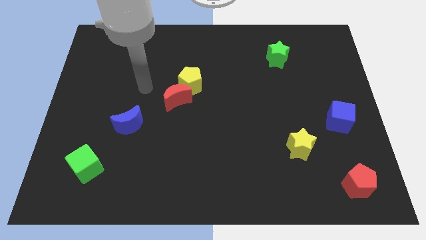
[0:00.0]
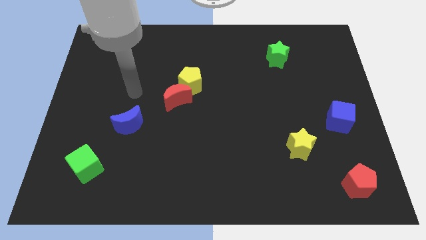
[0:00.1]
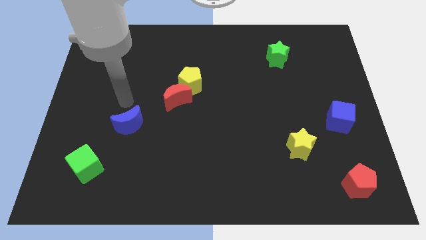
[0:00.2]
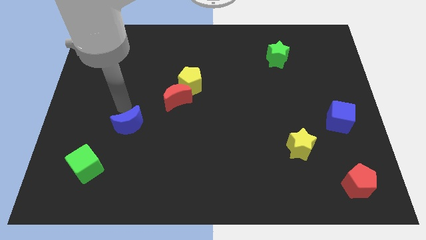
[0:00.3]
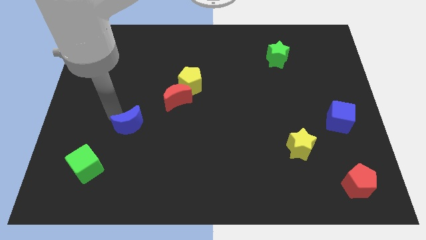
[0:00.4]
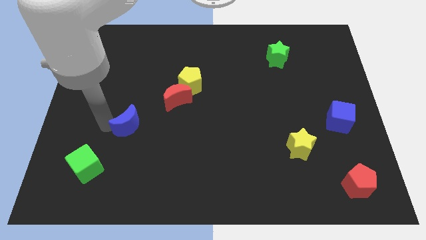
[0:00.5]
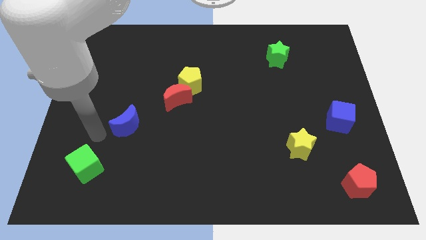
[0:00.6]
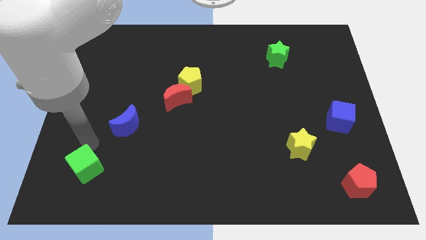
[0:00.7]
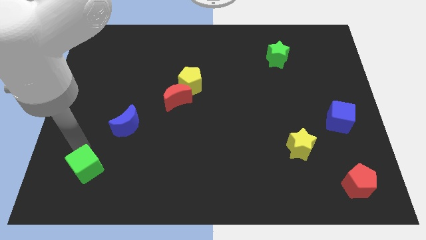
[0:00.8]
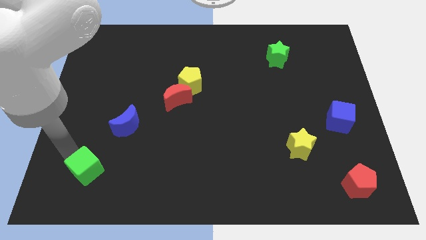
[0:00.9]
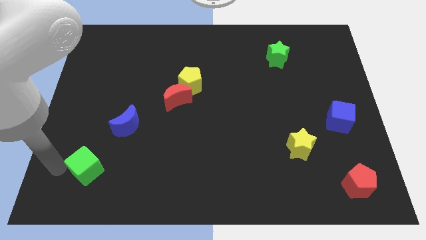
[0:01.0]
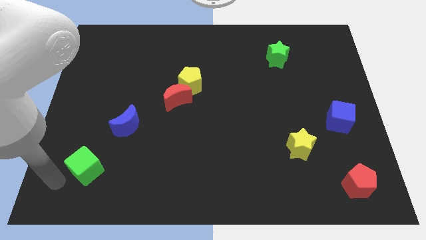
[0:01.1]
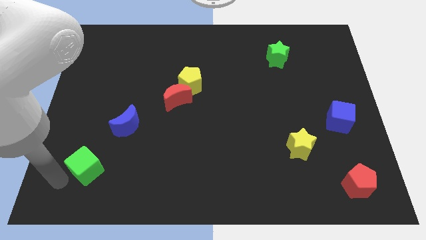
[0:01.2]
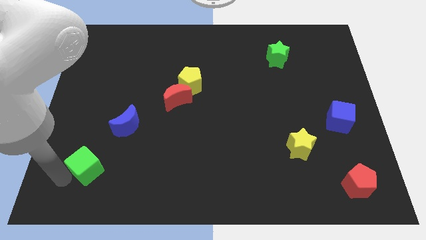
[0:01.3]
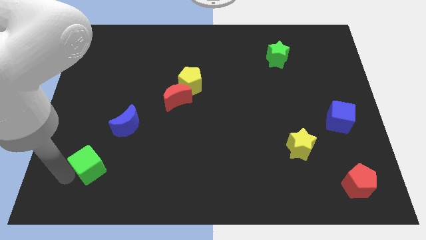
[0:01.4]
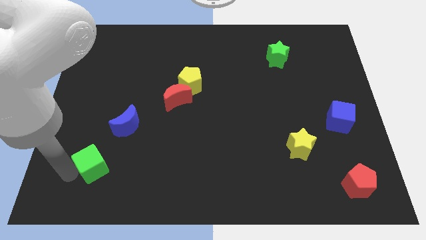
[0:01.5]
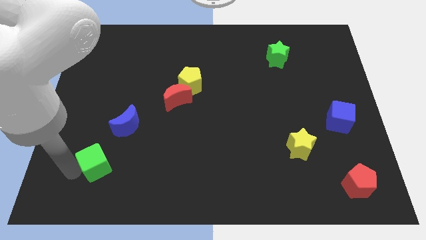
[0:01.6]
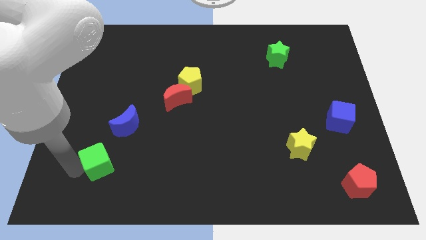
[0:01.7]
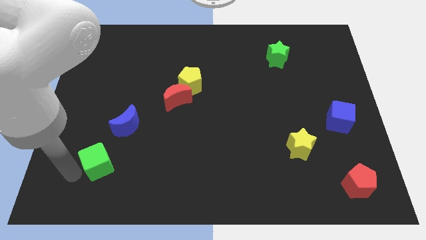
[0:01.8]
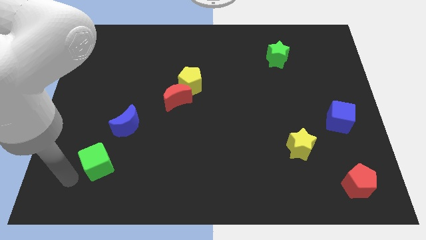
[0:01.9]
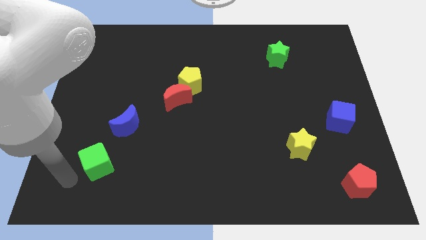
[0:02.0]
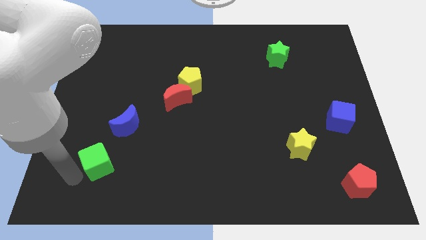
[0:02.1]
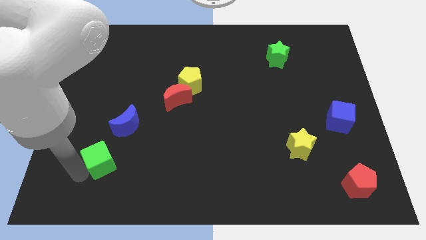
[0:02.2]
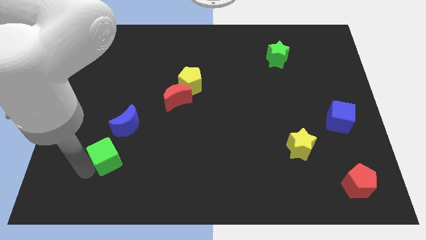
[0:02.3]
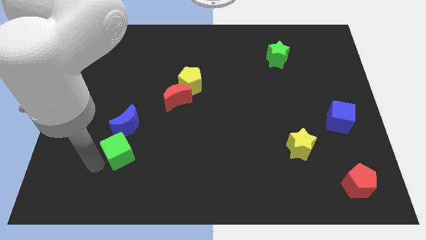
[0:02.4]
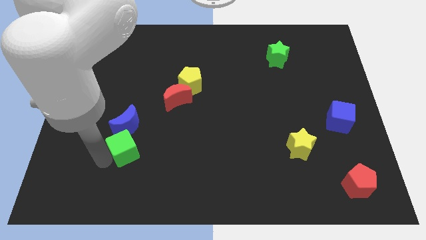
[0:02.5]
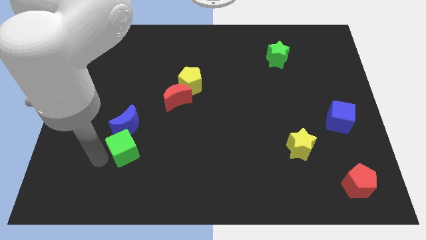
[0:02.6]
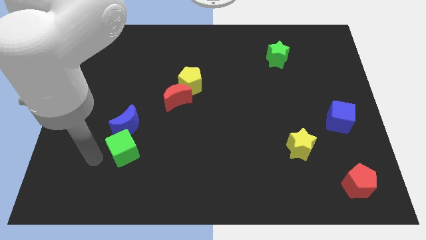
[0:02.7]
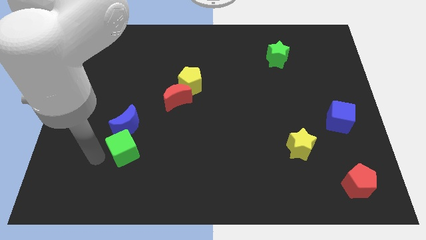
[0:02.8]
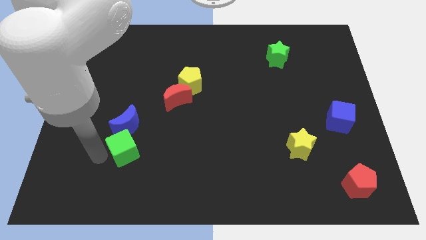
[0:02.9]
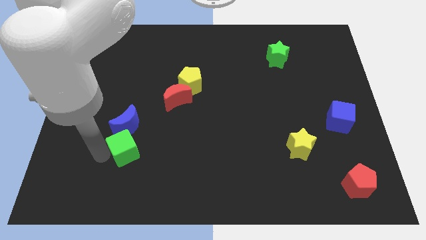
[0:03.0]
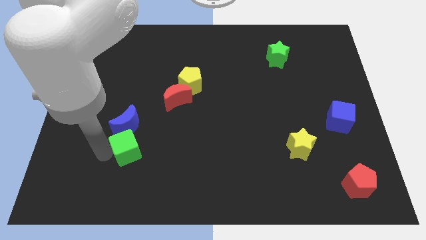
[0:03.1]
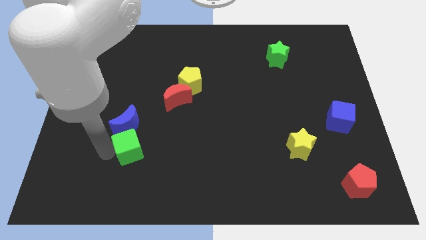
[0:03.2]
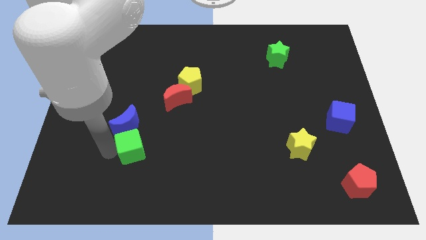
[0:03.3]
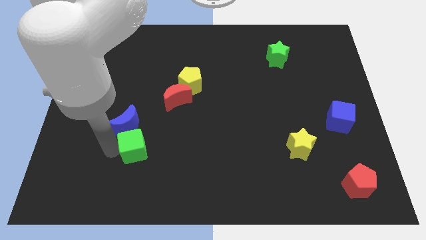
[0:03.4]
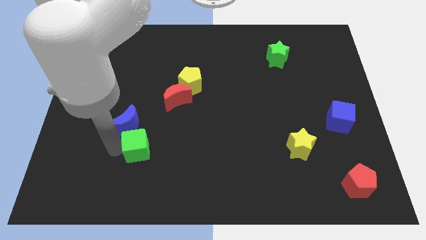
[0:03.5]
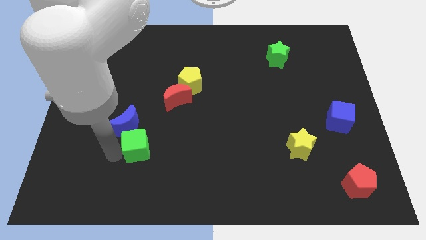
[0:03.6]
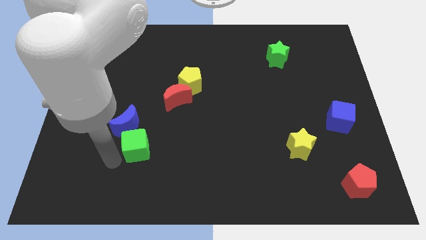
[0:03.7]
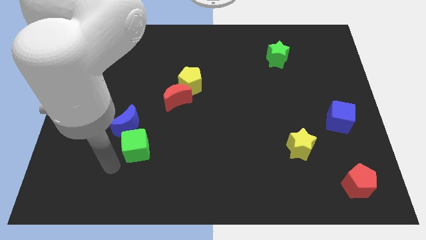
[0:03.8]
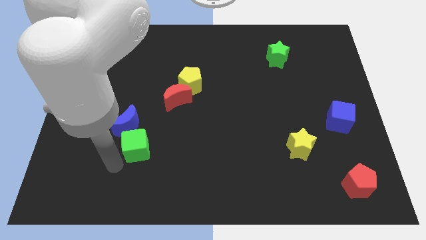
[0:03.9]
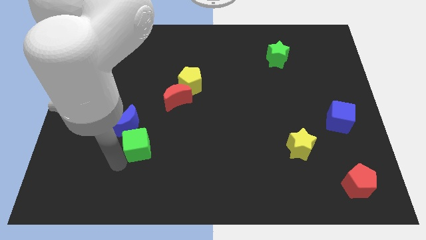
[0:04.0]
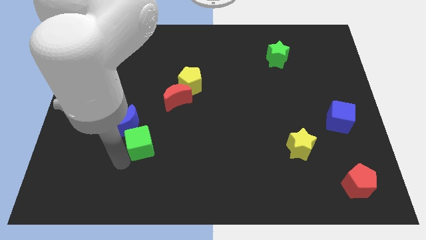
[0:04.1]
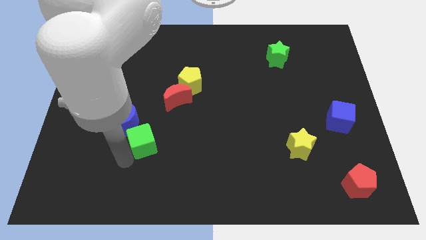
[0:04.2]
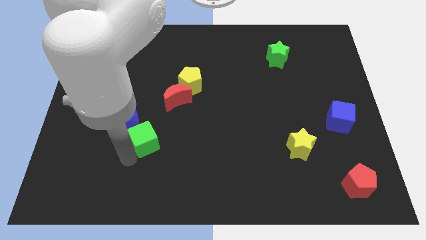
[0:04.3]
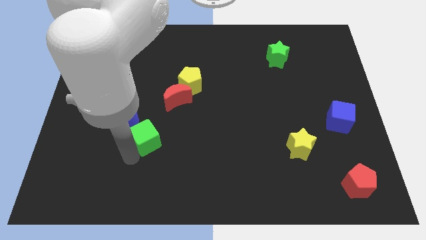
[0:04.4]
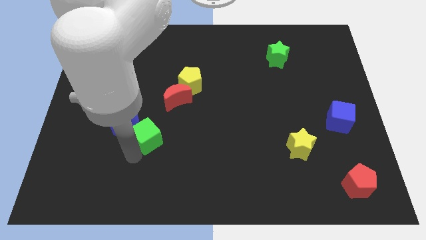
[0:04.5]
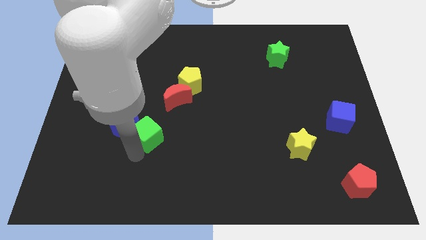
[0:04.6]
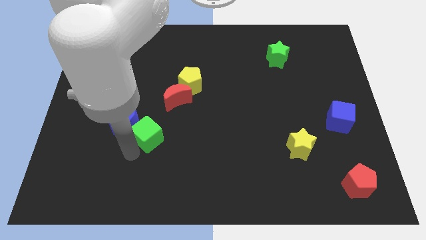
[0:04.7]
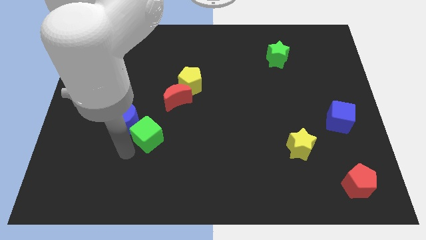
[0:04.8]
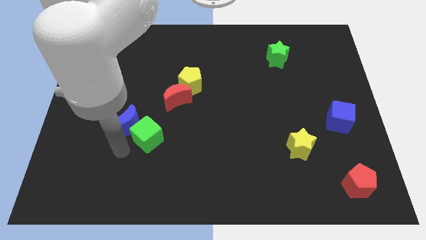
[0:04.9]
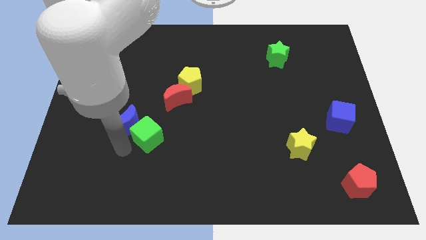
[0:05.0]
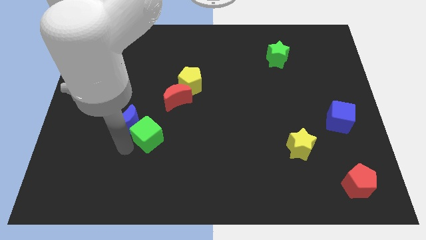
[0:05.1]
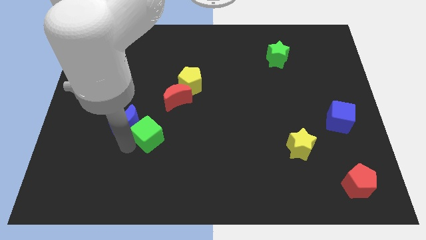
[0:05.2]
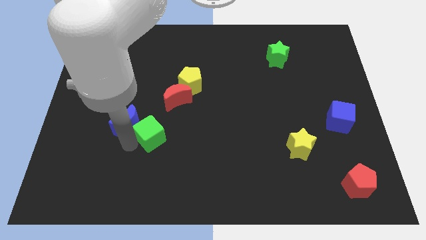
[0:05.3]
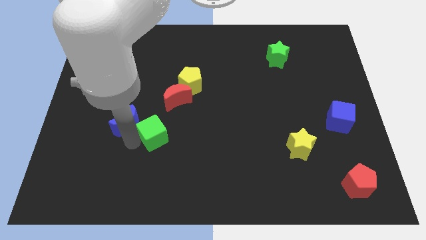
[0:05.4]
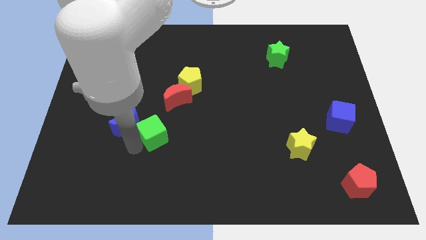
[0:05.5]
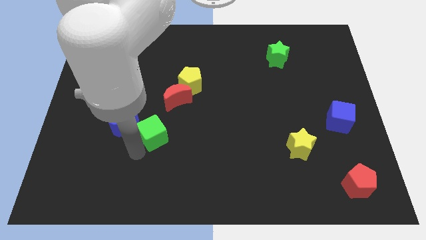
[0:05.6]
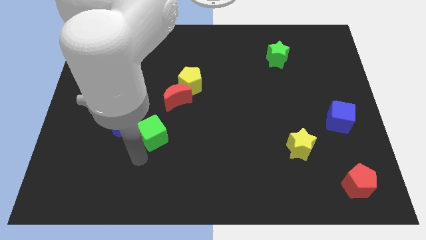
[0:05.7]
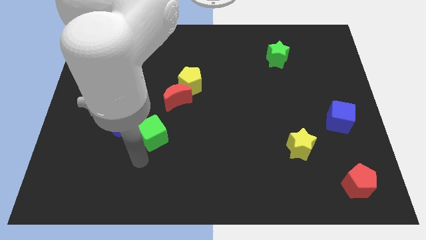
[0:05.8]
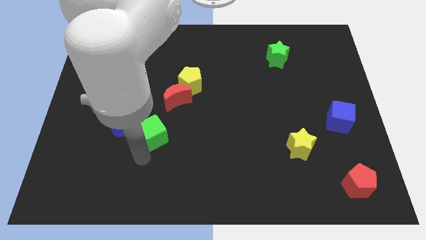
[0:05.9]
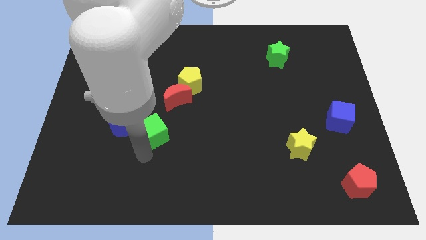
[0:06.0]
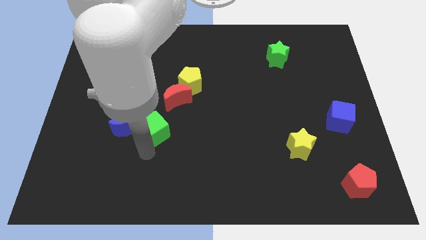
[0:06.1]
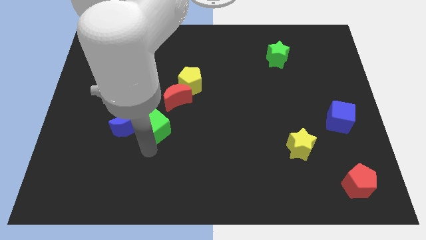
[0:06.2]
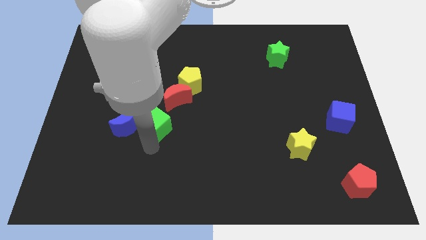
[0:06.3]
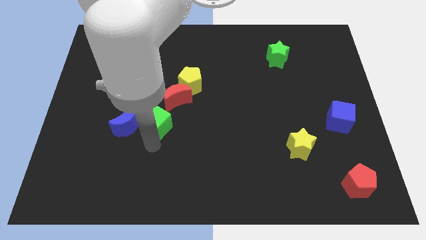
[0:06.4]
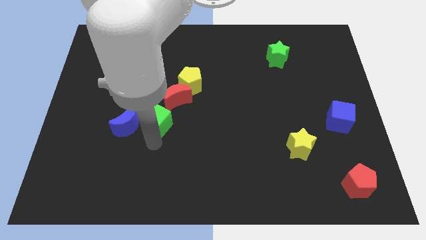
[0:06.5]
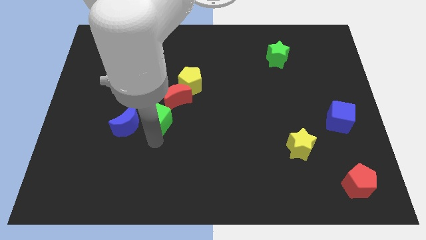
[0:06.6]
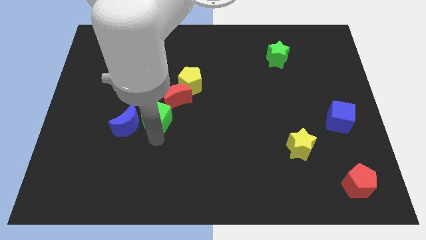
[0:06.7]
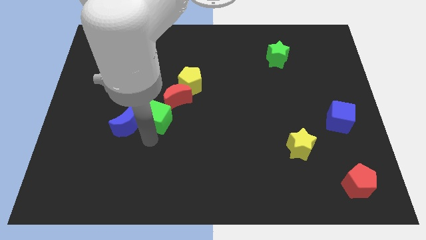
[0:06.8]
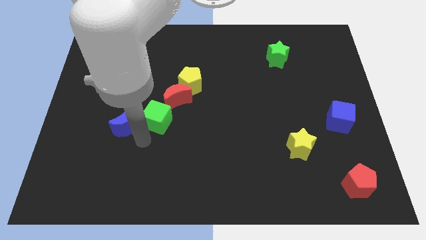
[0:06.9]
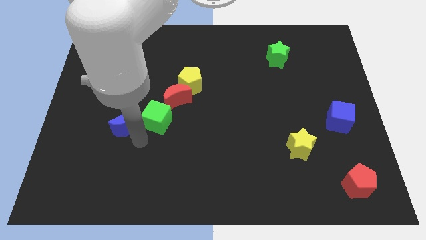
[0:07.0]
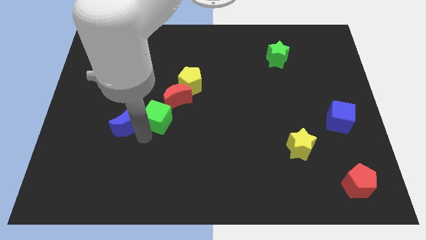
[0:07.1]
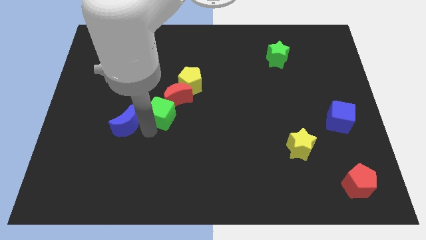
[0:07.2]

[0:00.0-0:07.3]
move the green cube towards the red moon
